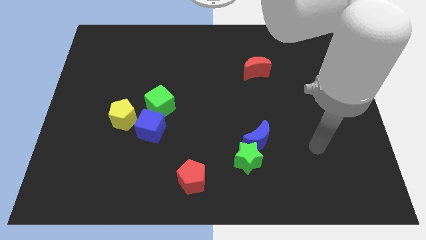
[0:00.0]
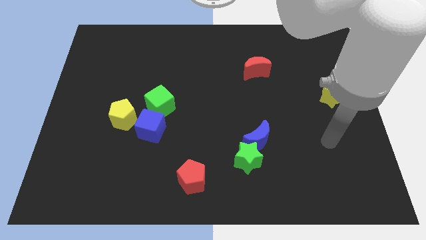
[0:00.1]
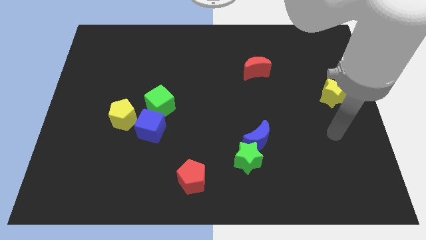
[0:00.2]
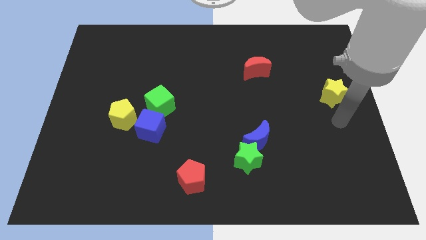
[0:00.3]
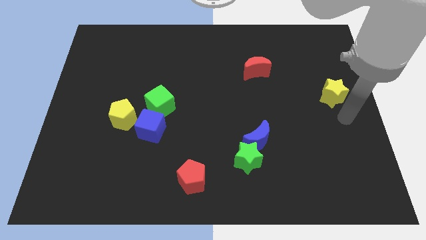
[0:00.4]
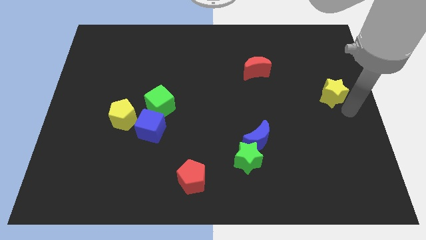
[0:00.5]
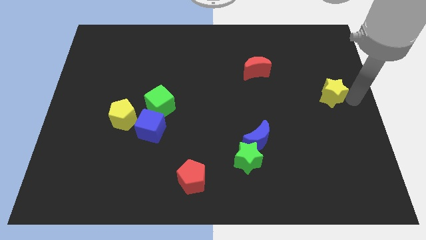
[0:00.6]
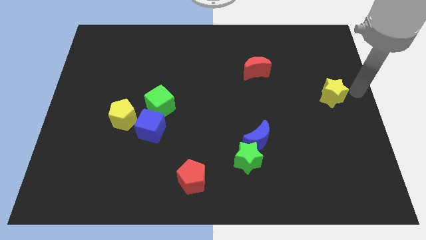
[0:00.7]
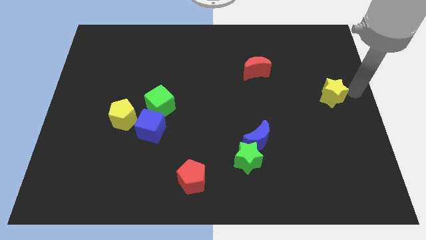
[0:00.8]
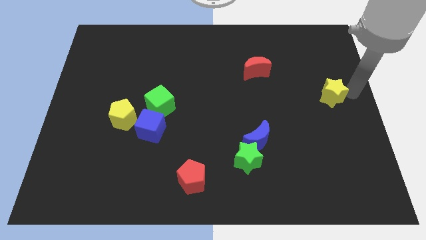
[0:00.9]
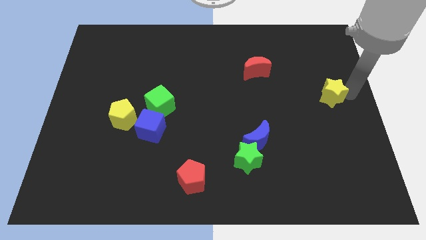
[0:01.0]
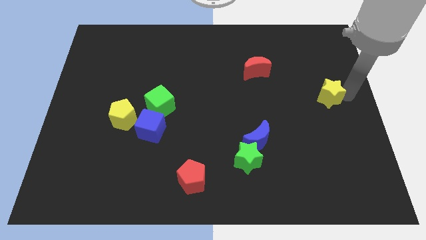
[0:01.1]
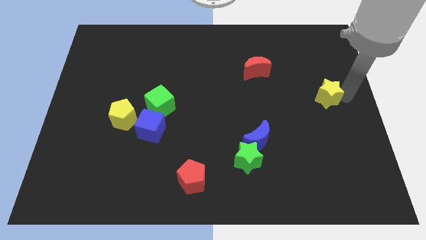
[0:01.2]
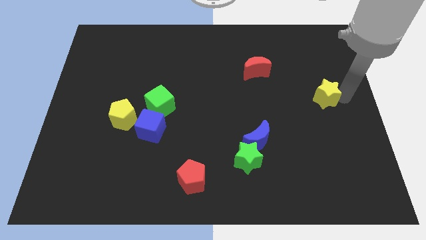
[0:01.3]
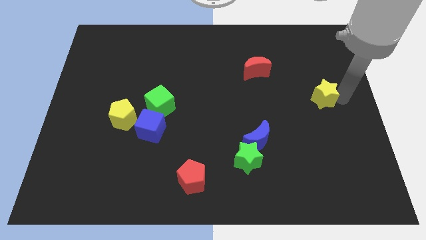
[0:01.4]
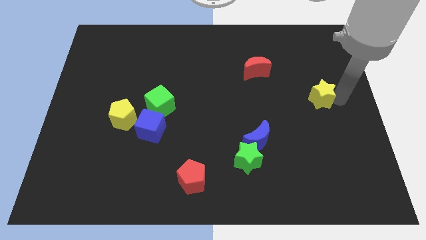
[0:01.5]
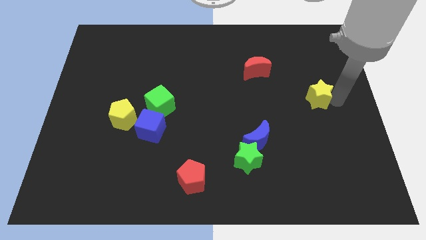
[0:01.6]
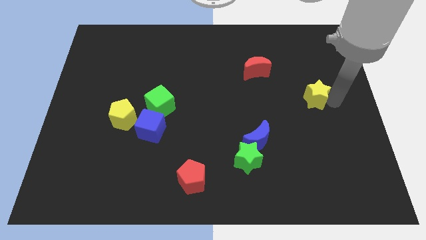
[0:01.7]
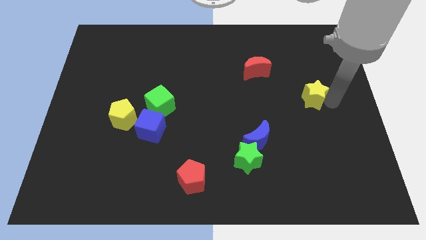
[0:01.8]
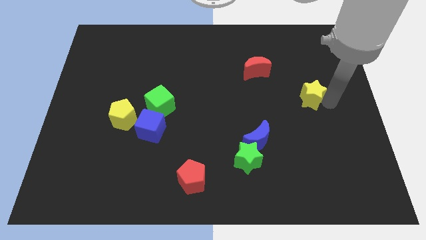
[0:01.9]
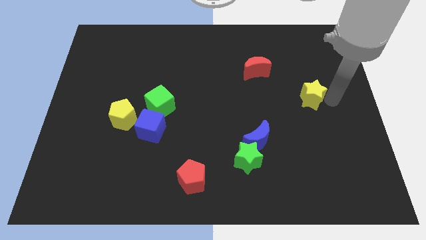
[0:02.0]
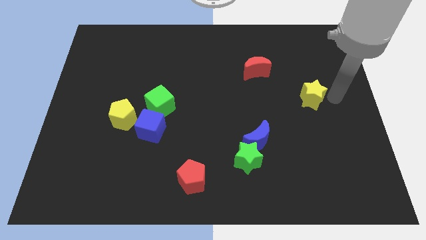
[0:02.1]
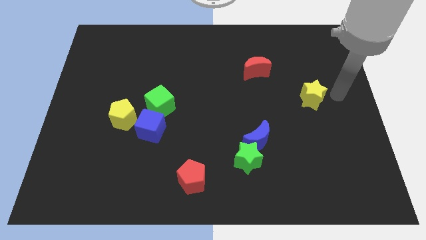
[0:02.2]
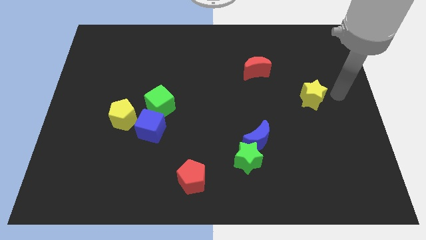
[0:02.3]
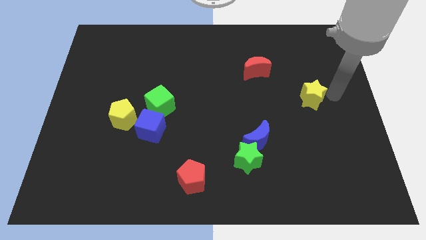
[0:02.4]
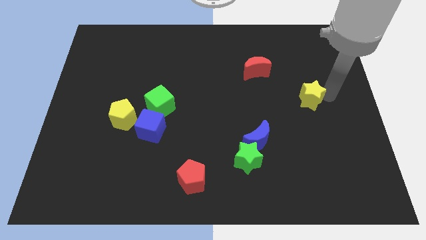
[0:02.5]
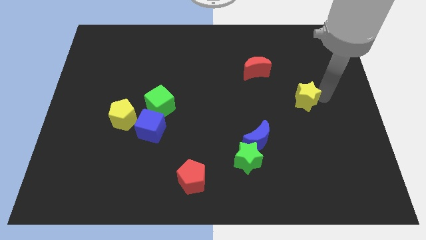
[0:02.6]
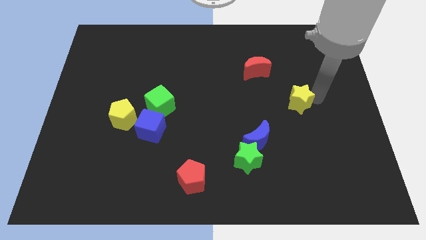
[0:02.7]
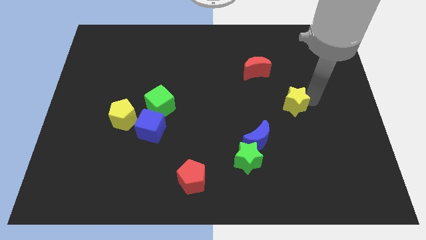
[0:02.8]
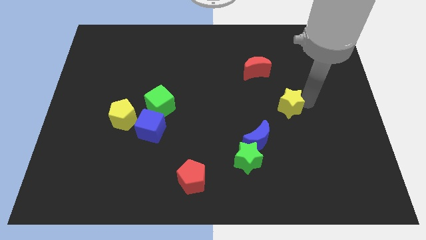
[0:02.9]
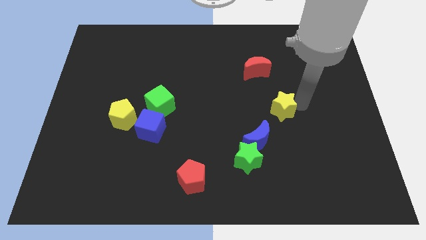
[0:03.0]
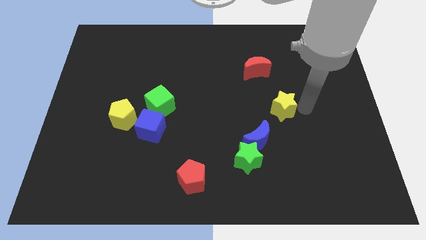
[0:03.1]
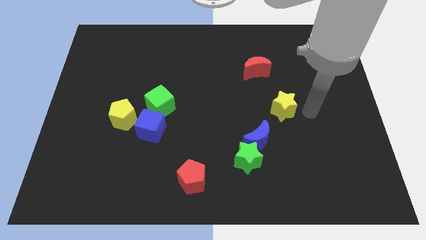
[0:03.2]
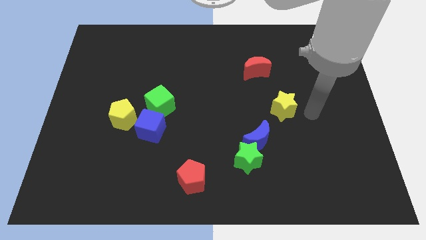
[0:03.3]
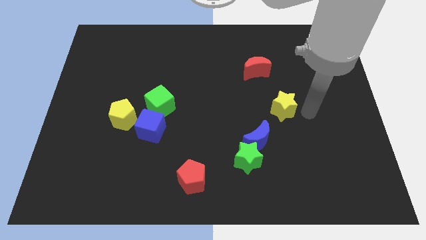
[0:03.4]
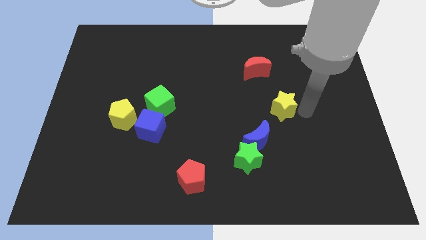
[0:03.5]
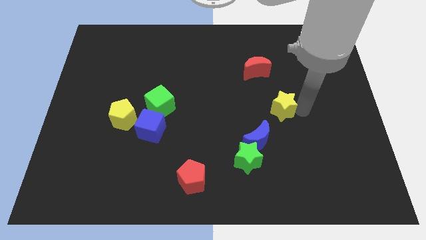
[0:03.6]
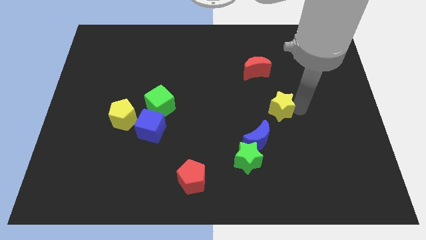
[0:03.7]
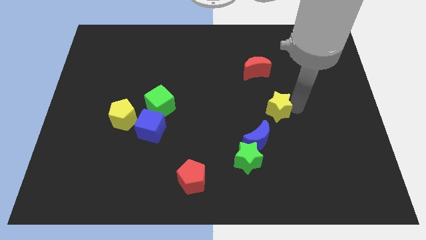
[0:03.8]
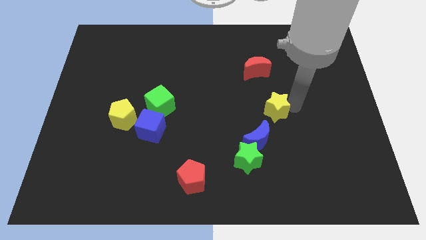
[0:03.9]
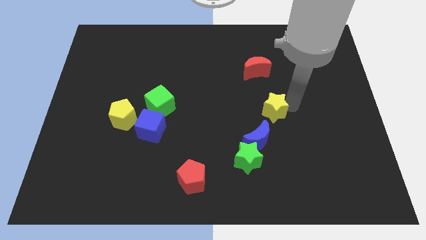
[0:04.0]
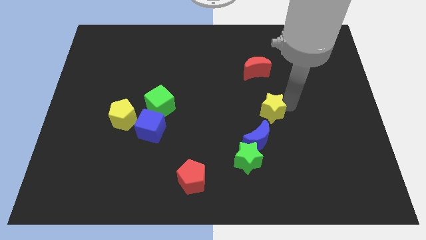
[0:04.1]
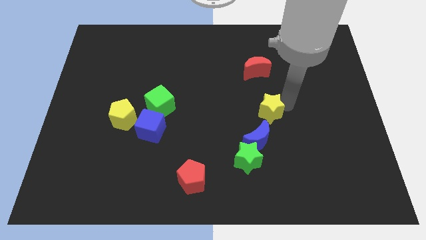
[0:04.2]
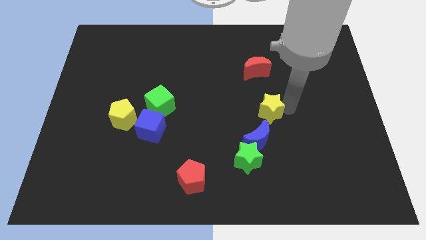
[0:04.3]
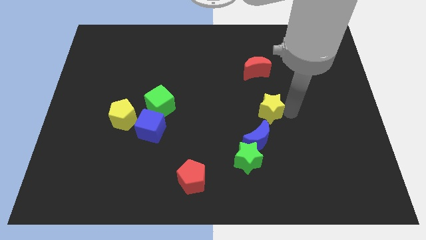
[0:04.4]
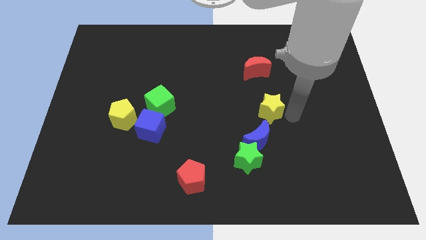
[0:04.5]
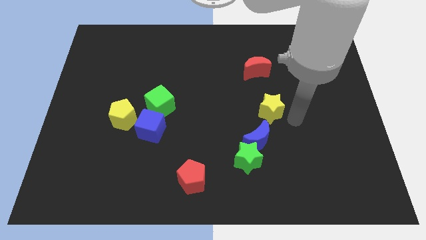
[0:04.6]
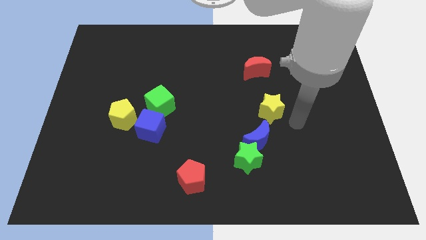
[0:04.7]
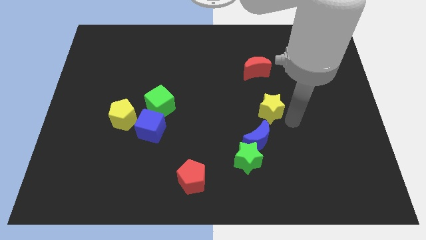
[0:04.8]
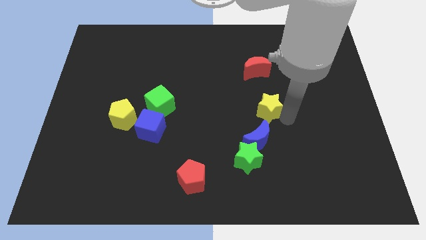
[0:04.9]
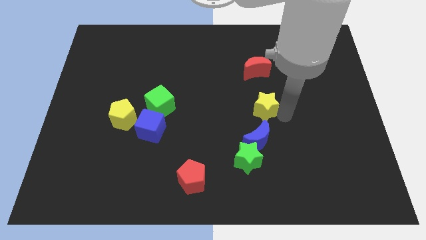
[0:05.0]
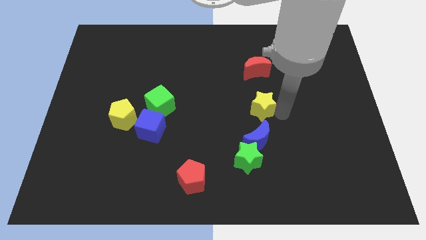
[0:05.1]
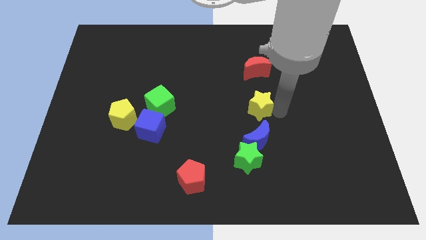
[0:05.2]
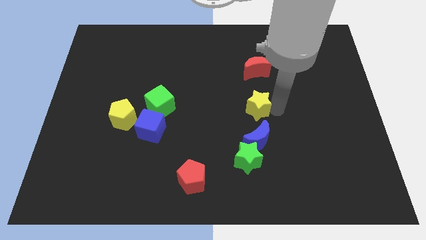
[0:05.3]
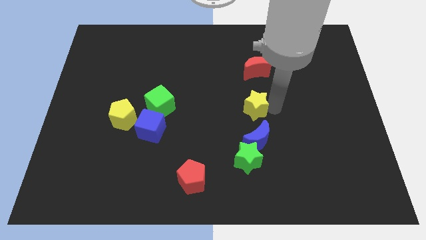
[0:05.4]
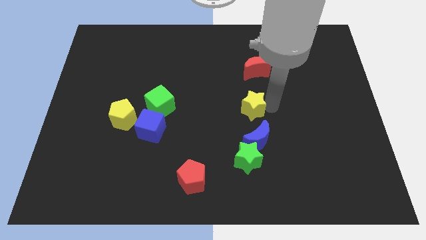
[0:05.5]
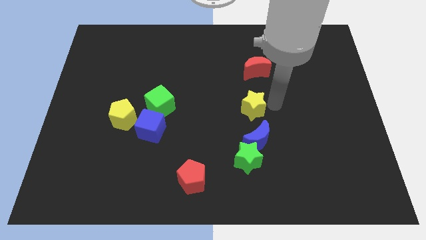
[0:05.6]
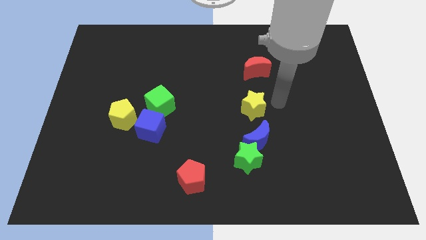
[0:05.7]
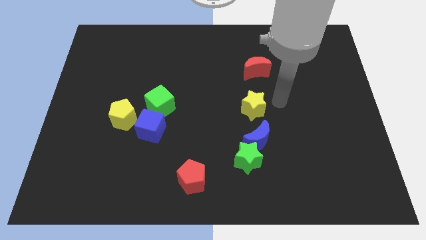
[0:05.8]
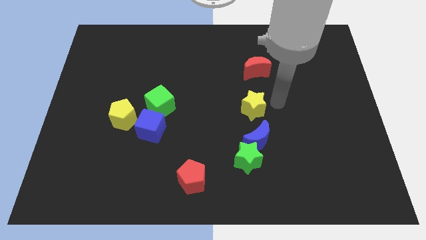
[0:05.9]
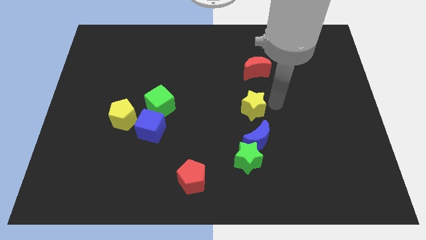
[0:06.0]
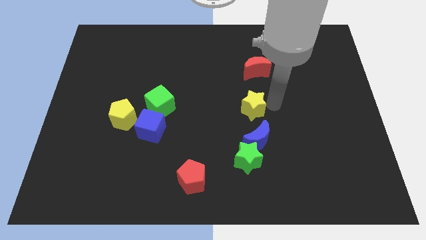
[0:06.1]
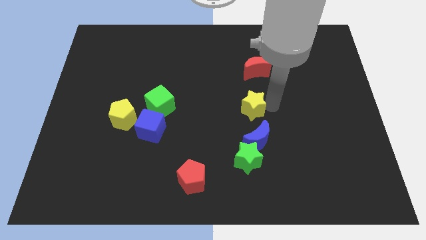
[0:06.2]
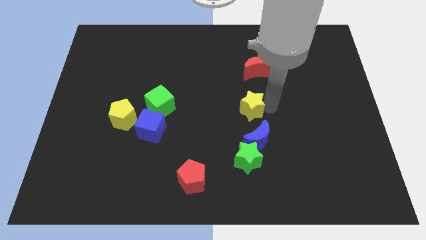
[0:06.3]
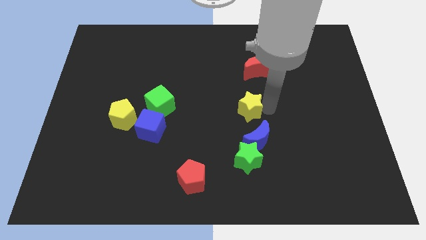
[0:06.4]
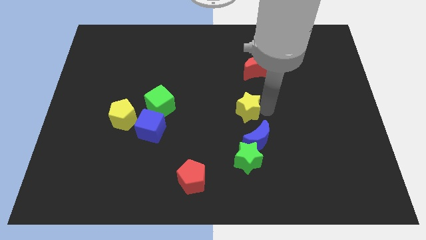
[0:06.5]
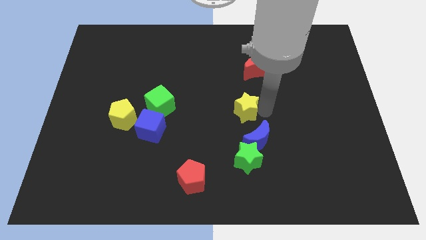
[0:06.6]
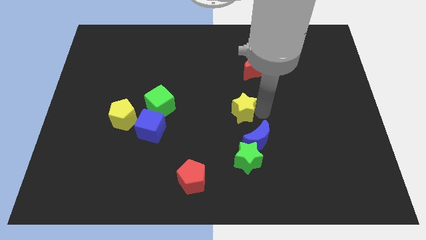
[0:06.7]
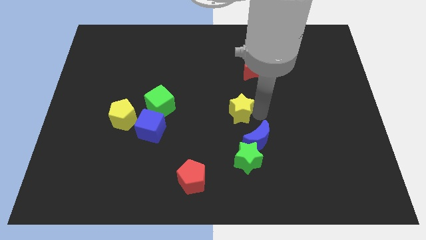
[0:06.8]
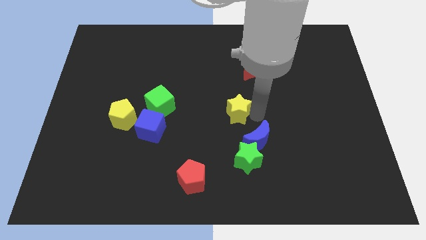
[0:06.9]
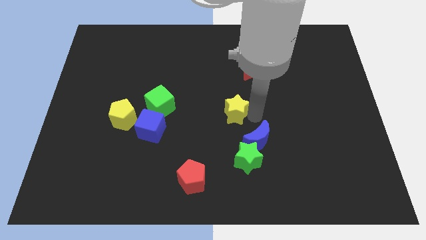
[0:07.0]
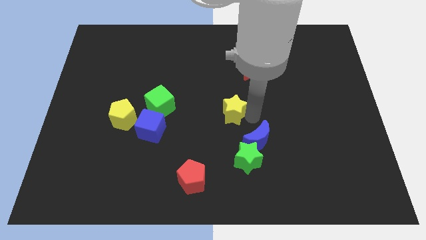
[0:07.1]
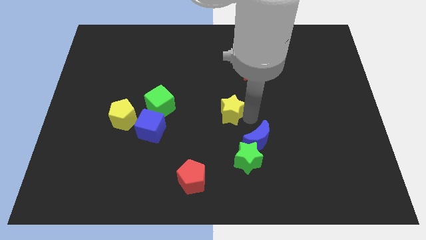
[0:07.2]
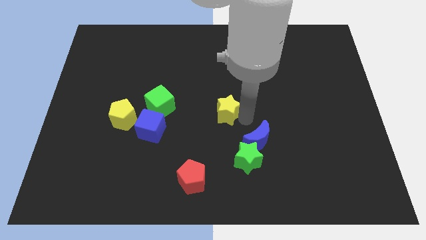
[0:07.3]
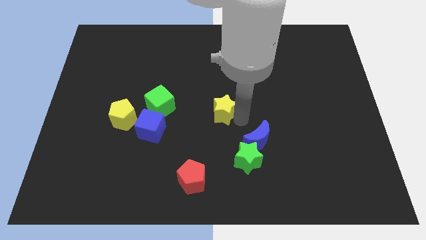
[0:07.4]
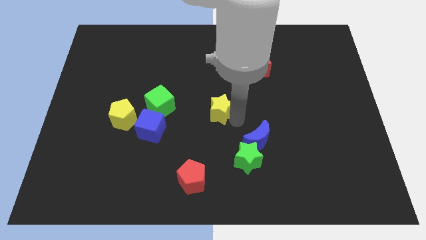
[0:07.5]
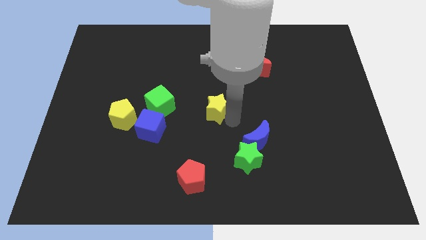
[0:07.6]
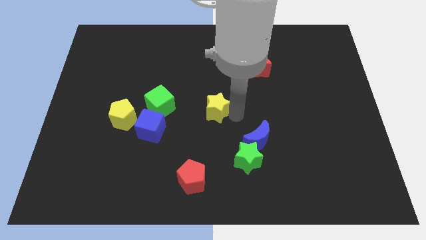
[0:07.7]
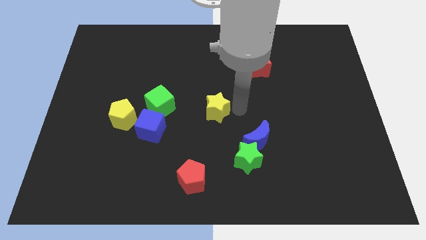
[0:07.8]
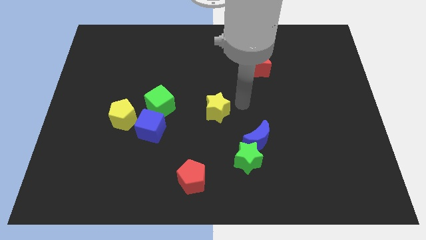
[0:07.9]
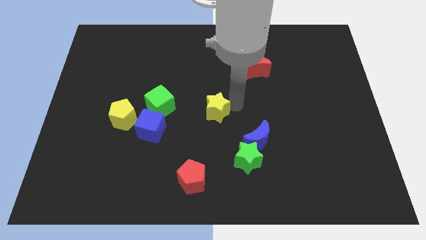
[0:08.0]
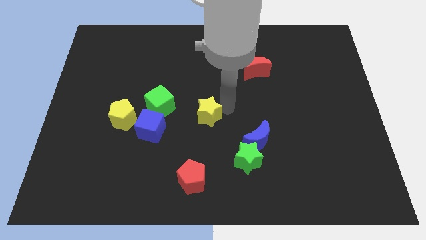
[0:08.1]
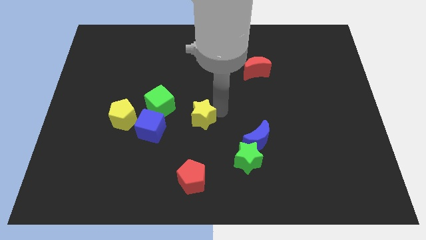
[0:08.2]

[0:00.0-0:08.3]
put the yellow star to the bottom right of the green cube
